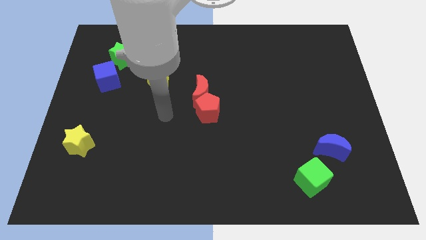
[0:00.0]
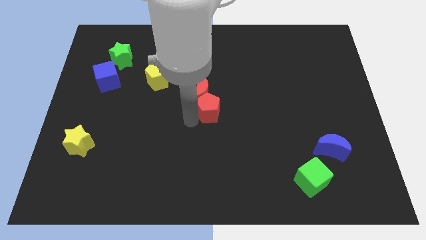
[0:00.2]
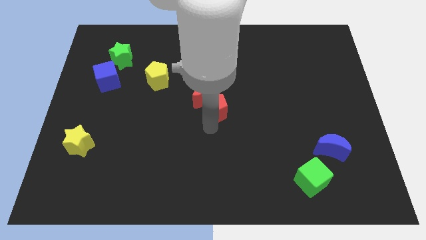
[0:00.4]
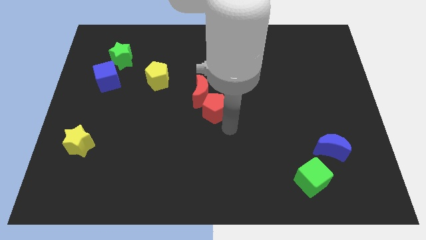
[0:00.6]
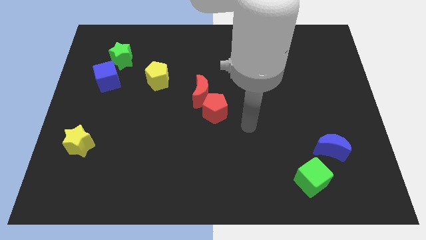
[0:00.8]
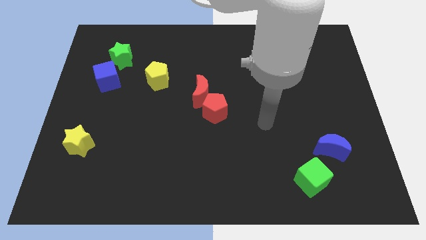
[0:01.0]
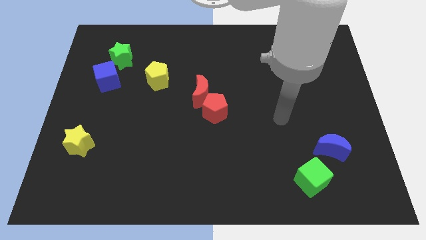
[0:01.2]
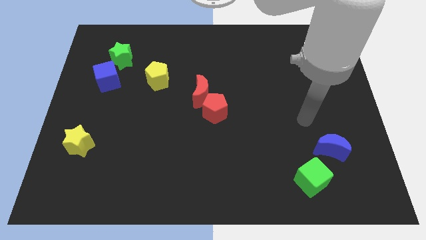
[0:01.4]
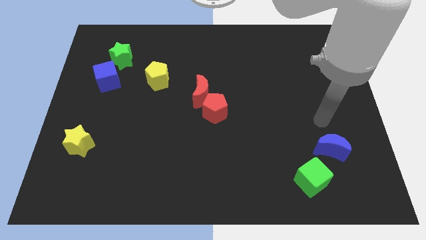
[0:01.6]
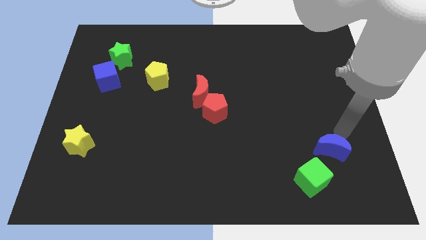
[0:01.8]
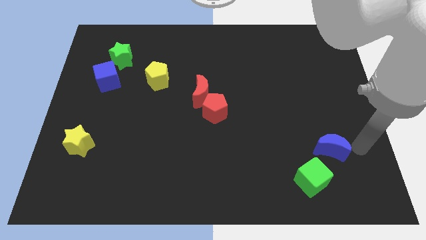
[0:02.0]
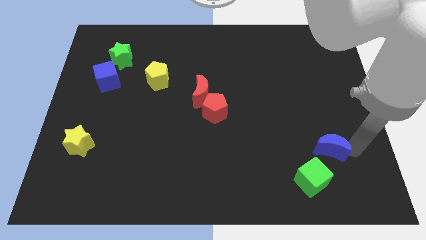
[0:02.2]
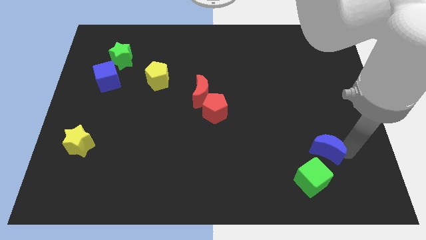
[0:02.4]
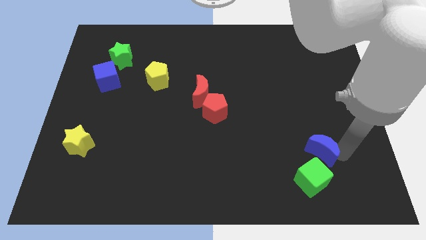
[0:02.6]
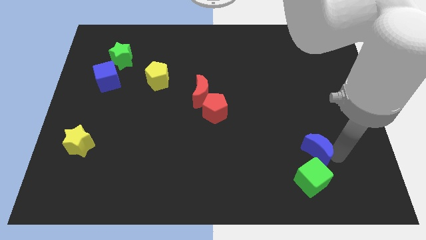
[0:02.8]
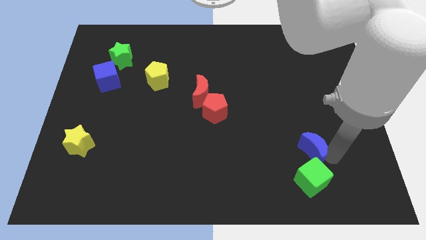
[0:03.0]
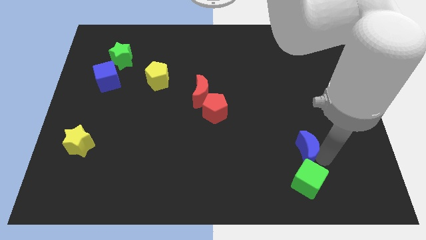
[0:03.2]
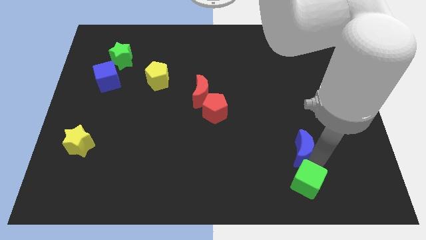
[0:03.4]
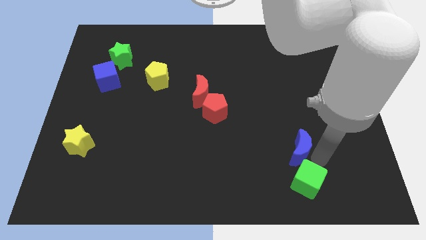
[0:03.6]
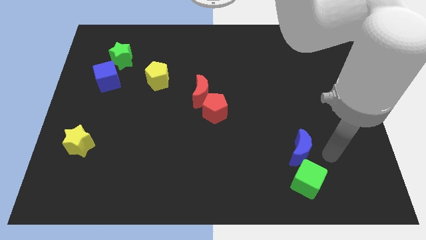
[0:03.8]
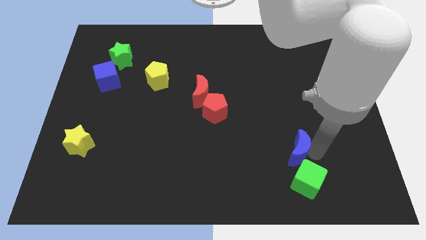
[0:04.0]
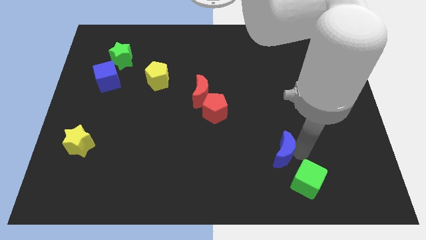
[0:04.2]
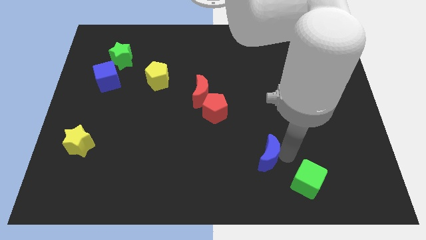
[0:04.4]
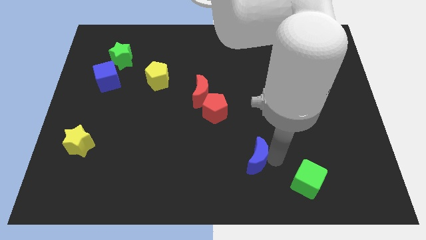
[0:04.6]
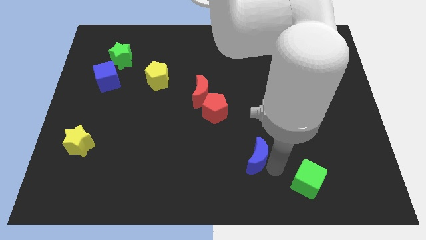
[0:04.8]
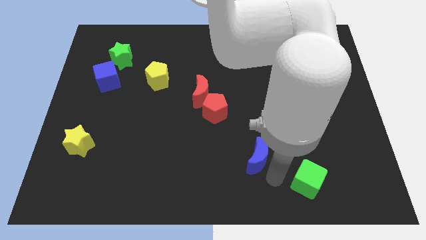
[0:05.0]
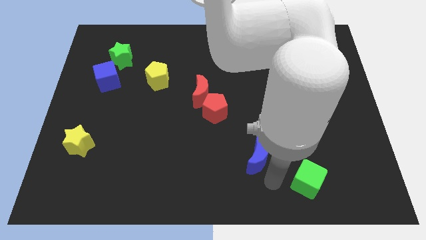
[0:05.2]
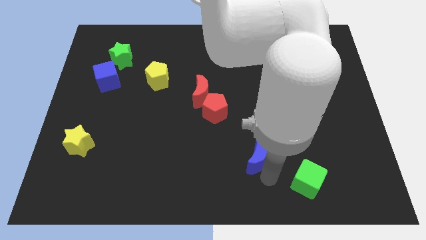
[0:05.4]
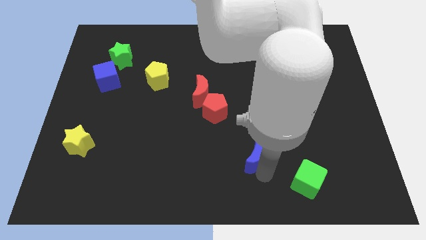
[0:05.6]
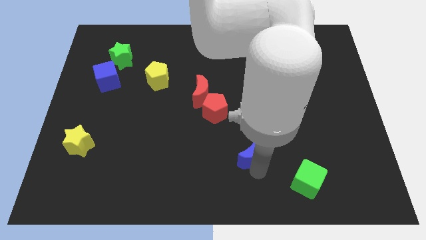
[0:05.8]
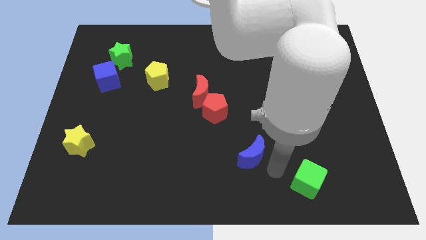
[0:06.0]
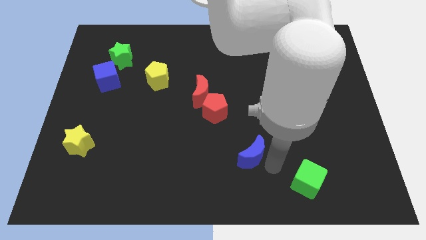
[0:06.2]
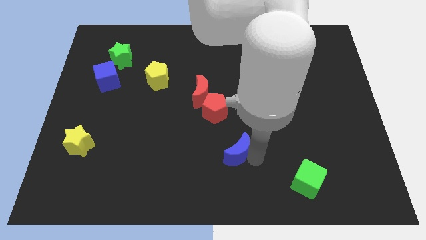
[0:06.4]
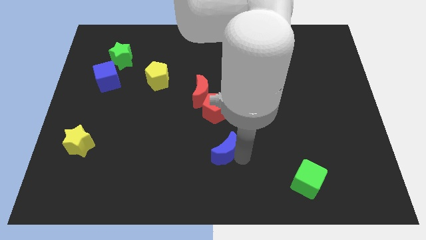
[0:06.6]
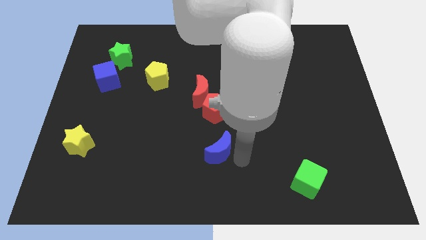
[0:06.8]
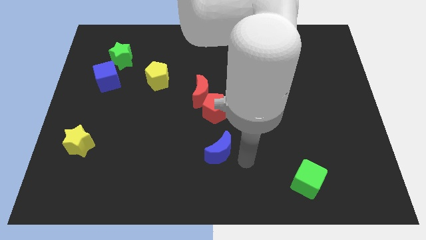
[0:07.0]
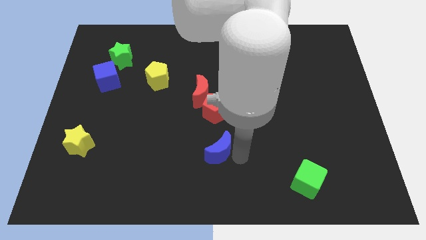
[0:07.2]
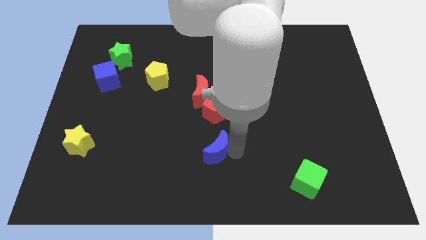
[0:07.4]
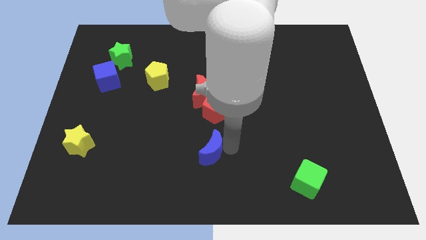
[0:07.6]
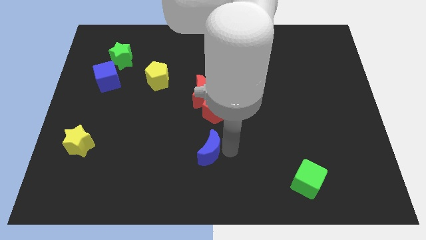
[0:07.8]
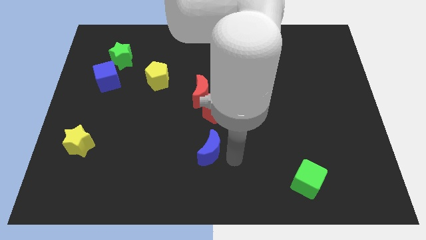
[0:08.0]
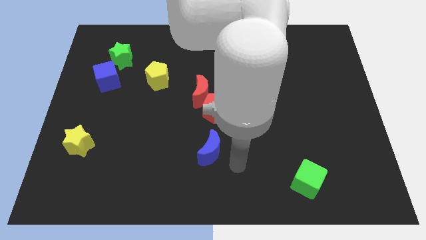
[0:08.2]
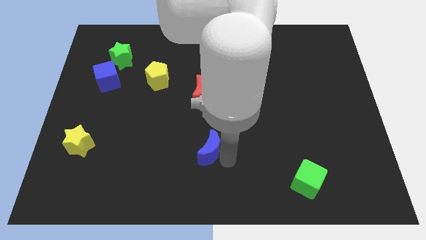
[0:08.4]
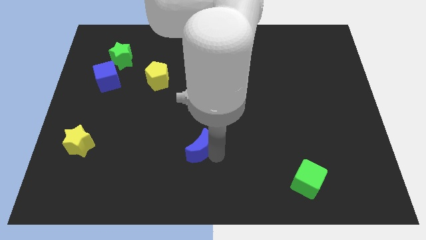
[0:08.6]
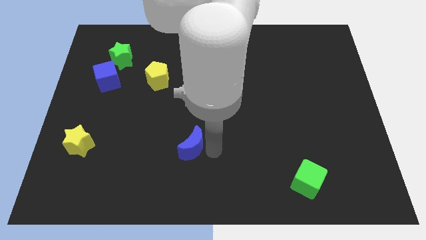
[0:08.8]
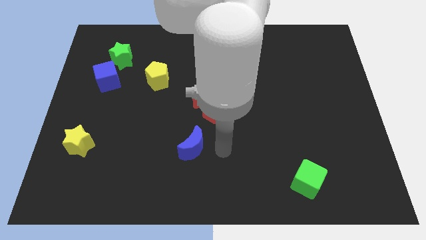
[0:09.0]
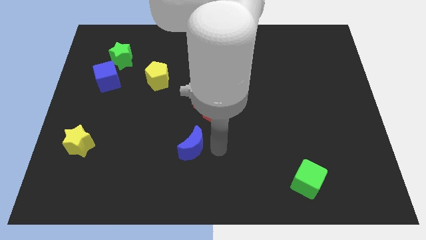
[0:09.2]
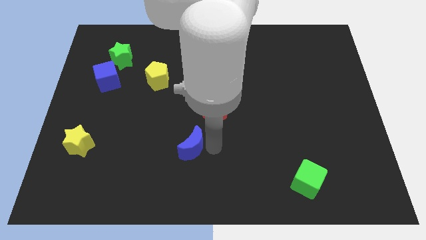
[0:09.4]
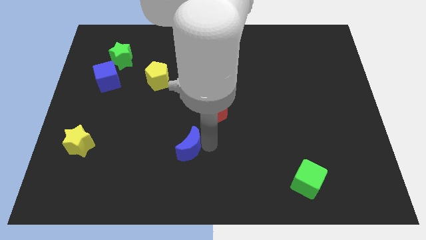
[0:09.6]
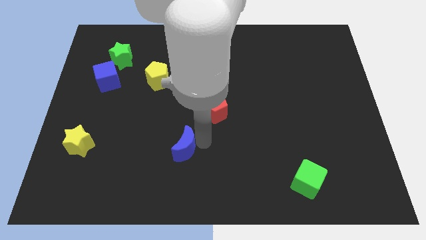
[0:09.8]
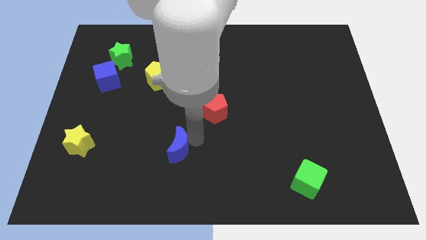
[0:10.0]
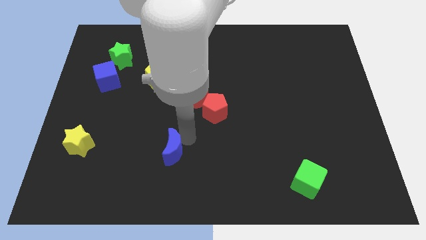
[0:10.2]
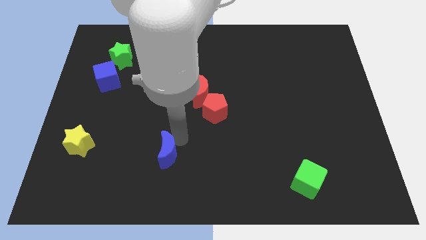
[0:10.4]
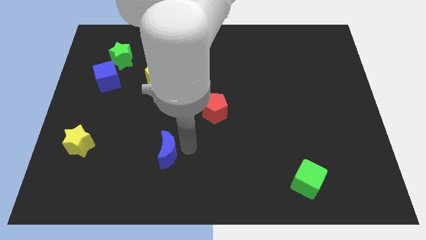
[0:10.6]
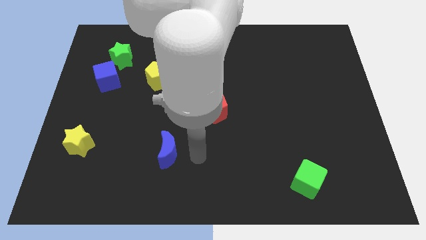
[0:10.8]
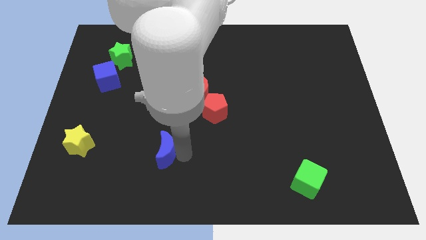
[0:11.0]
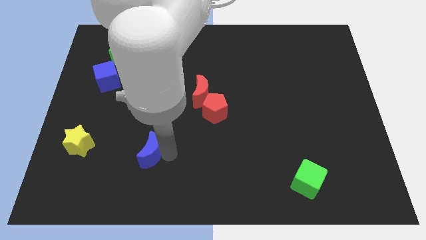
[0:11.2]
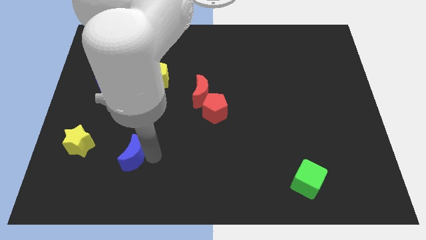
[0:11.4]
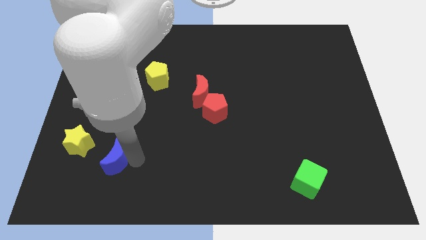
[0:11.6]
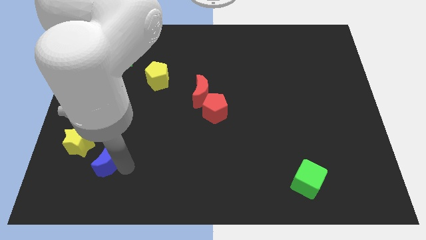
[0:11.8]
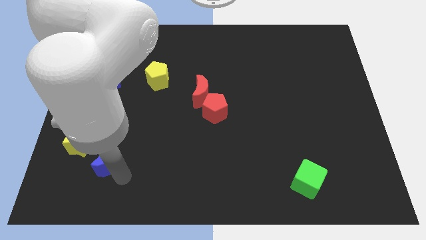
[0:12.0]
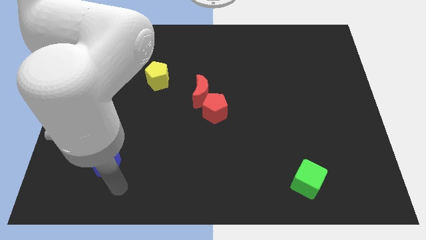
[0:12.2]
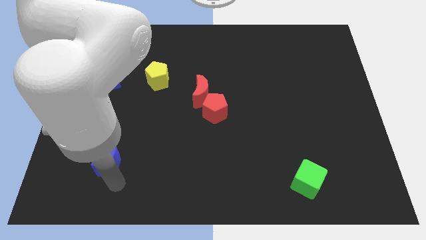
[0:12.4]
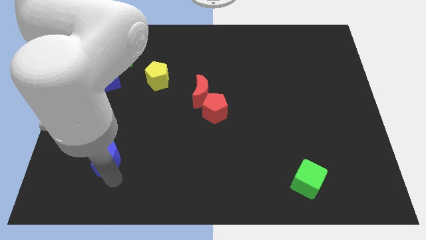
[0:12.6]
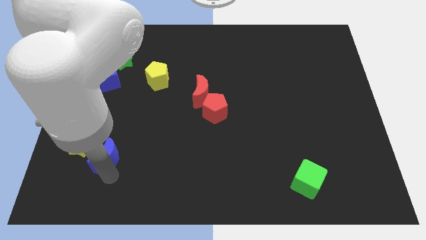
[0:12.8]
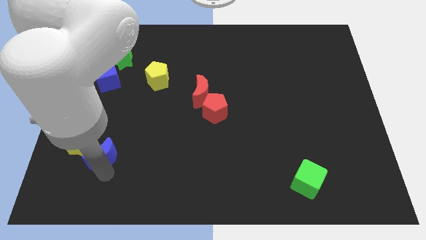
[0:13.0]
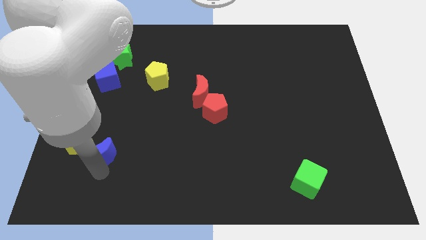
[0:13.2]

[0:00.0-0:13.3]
slide the blue moon towards the yellow star

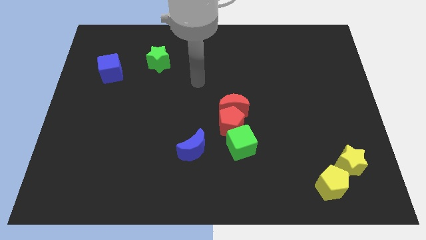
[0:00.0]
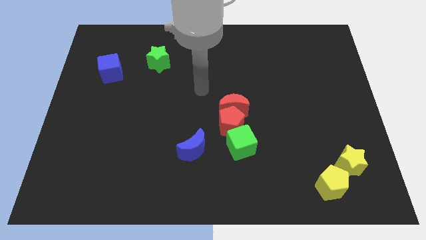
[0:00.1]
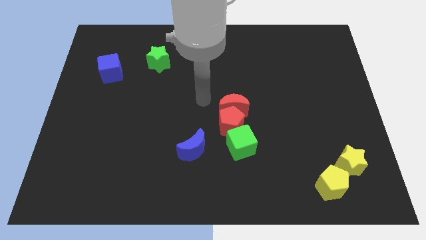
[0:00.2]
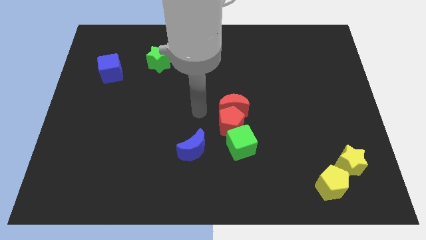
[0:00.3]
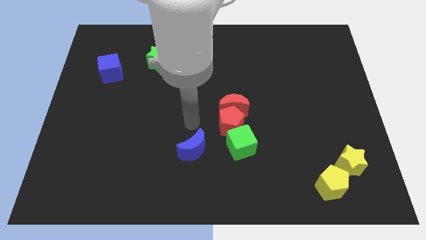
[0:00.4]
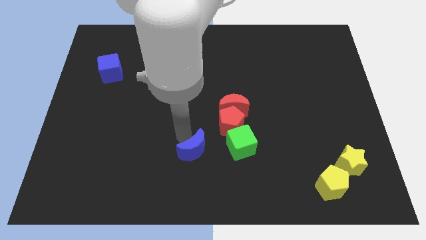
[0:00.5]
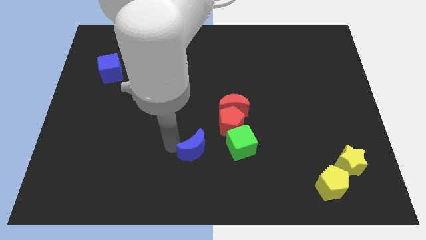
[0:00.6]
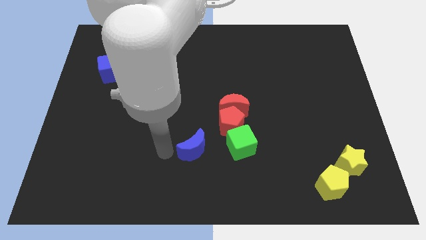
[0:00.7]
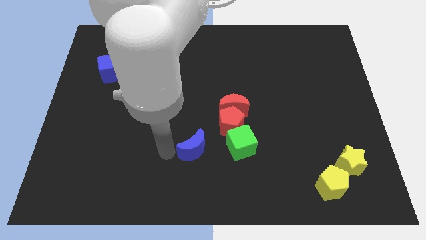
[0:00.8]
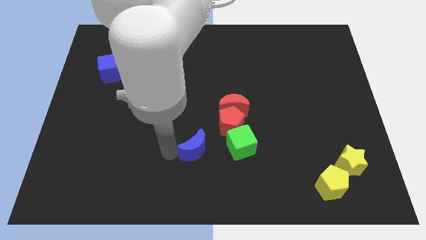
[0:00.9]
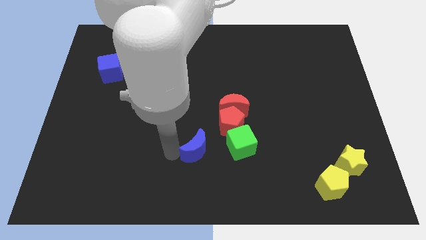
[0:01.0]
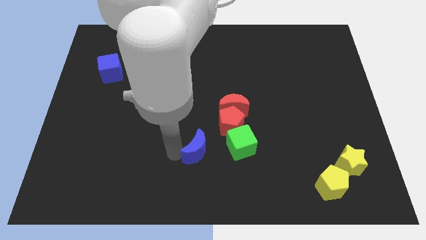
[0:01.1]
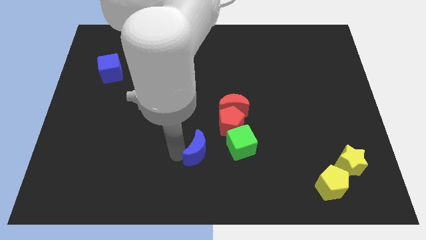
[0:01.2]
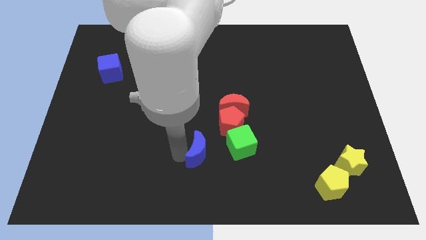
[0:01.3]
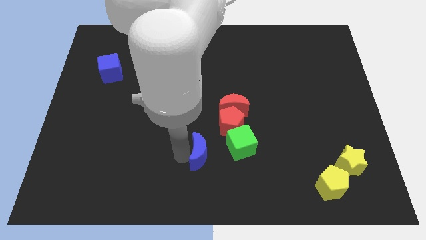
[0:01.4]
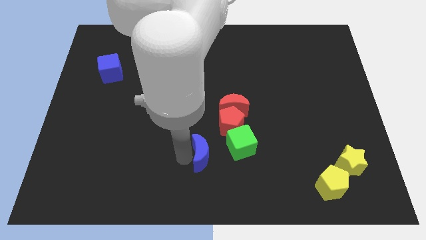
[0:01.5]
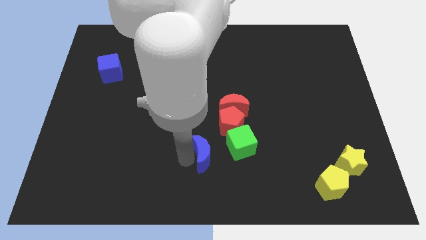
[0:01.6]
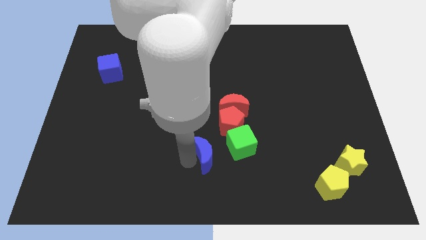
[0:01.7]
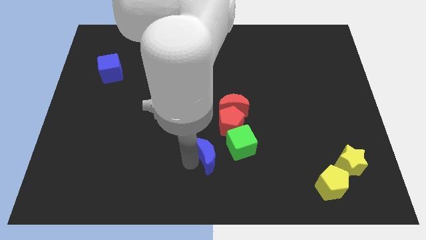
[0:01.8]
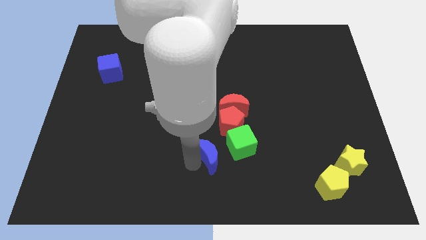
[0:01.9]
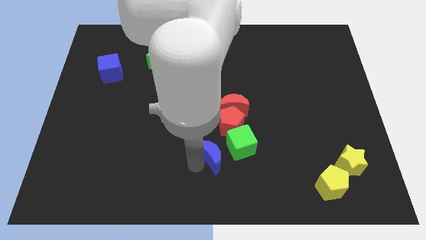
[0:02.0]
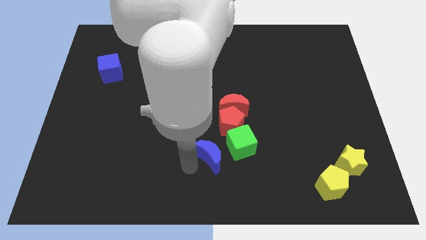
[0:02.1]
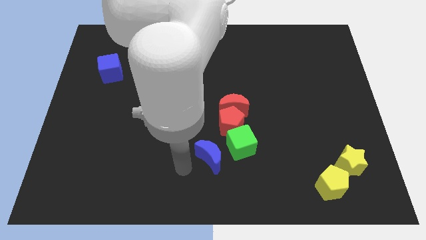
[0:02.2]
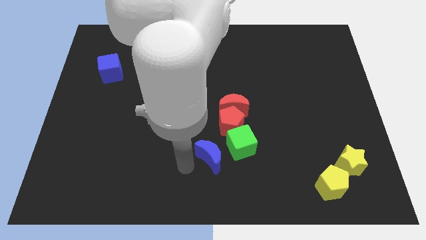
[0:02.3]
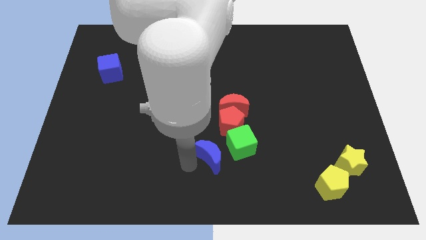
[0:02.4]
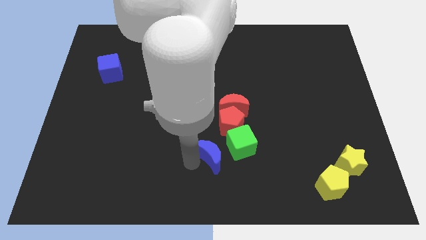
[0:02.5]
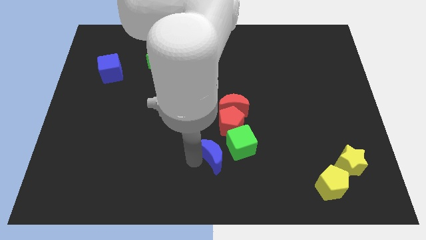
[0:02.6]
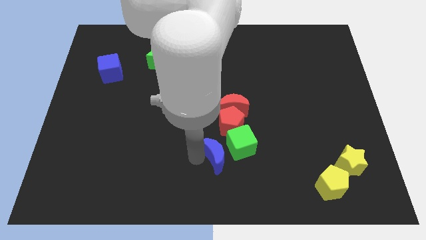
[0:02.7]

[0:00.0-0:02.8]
put the blue moon to the green cube
